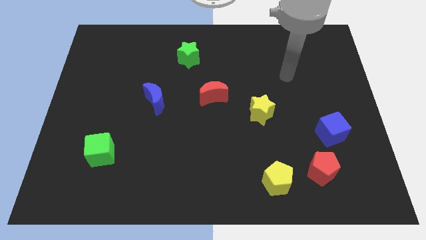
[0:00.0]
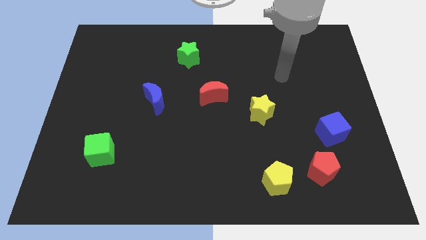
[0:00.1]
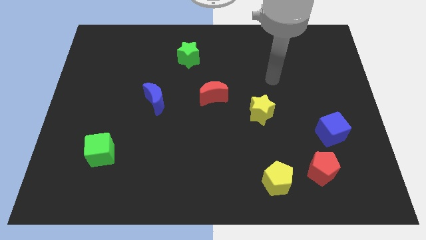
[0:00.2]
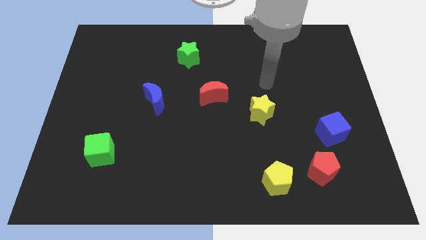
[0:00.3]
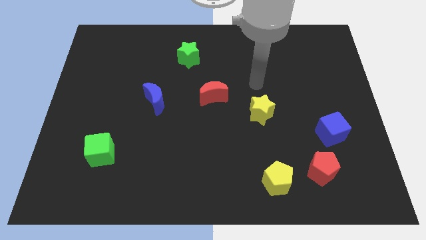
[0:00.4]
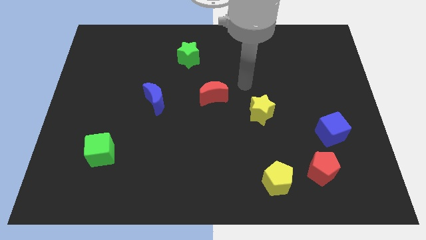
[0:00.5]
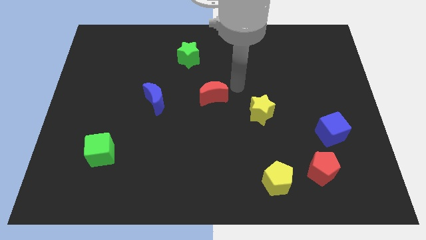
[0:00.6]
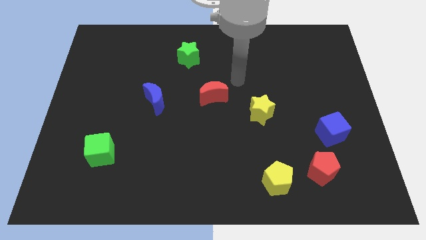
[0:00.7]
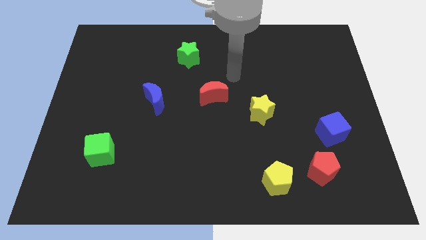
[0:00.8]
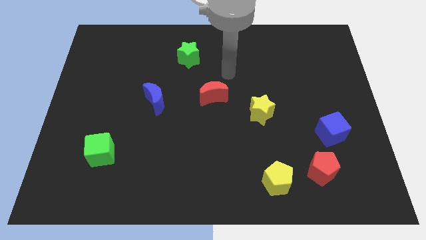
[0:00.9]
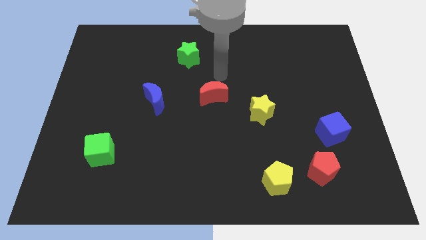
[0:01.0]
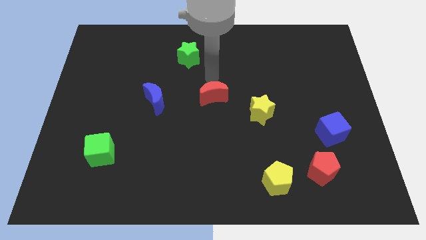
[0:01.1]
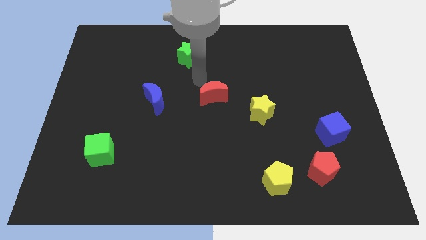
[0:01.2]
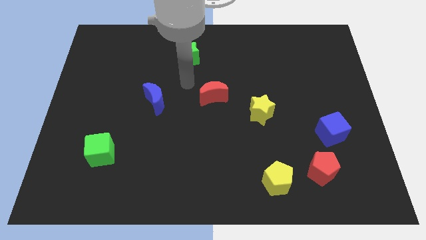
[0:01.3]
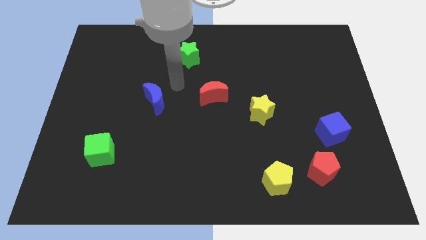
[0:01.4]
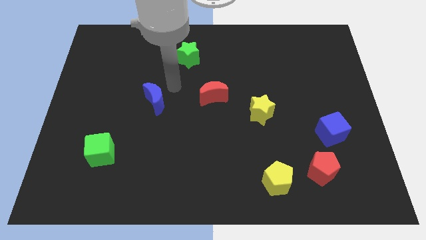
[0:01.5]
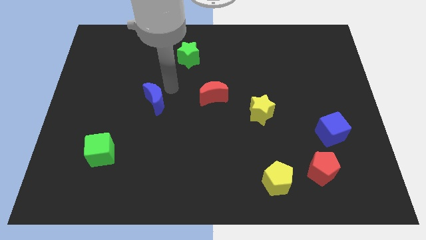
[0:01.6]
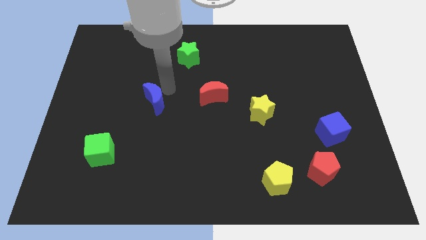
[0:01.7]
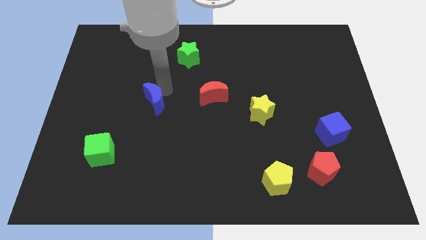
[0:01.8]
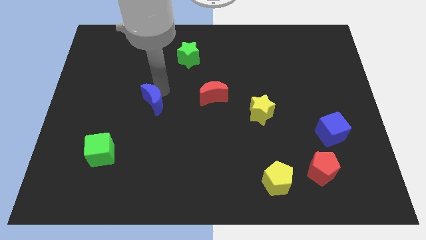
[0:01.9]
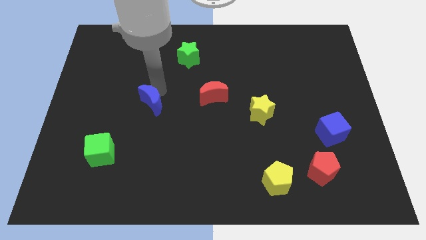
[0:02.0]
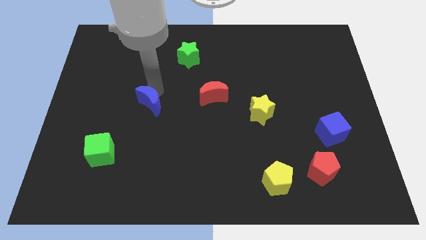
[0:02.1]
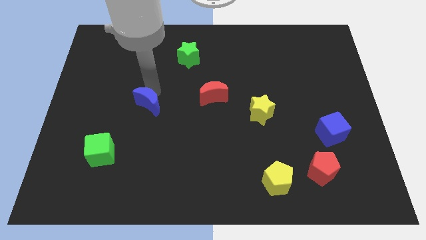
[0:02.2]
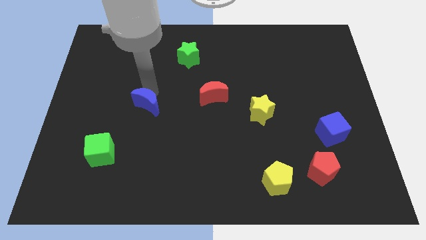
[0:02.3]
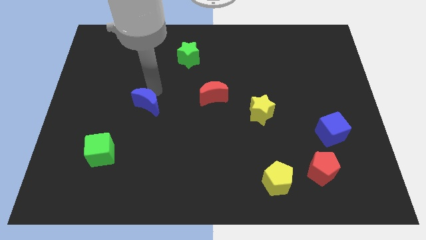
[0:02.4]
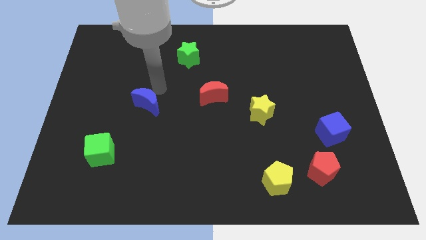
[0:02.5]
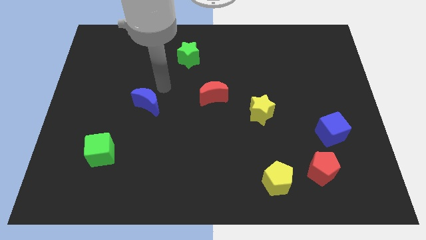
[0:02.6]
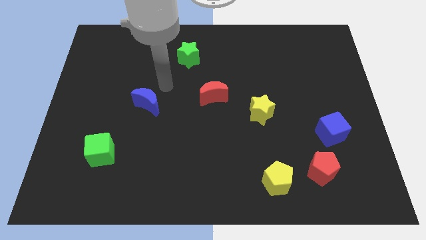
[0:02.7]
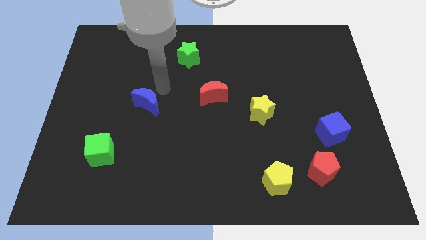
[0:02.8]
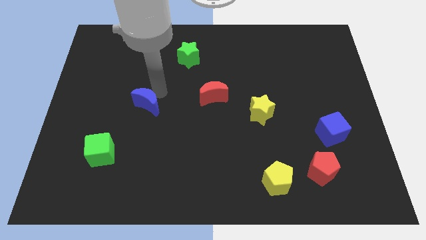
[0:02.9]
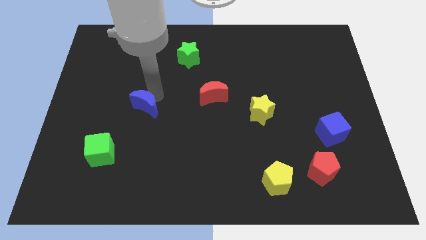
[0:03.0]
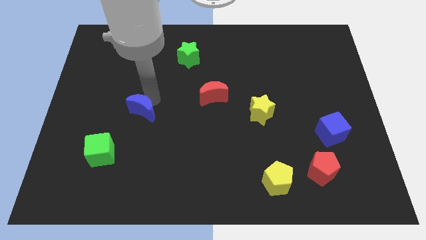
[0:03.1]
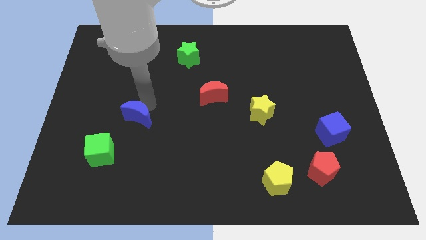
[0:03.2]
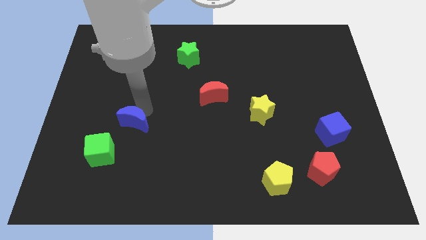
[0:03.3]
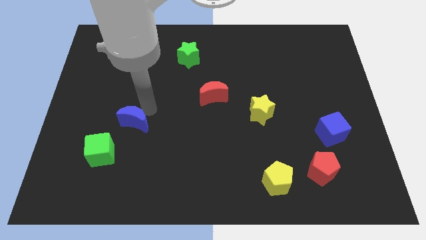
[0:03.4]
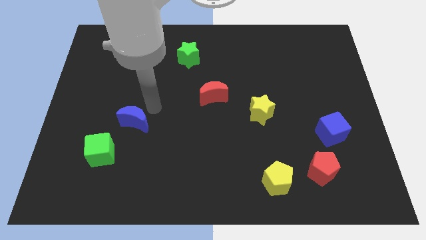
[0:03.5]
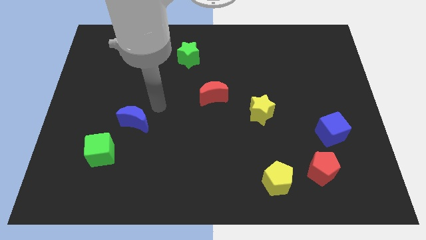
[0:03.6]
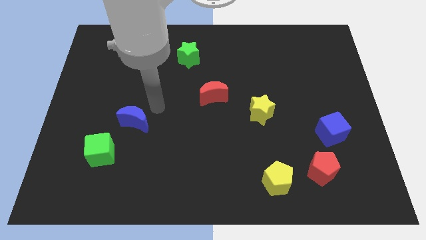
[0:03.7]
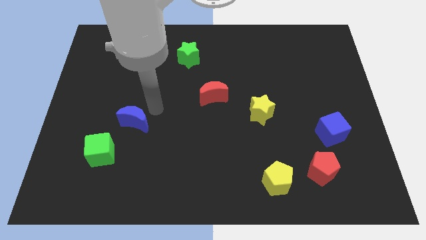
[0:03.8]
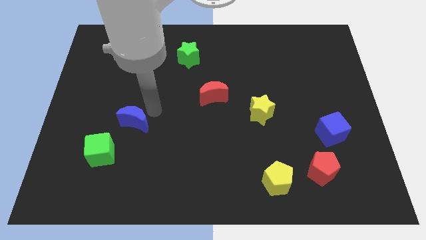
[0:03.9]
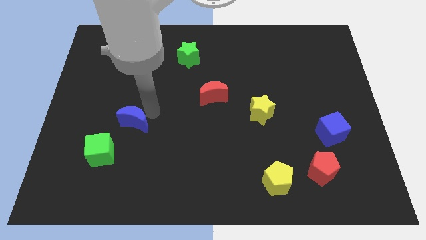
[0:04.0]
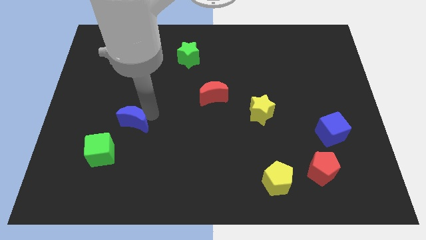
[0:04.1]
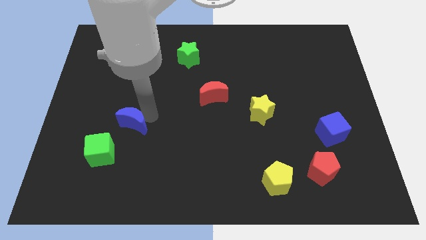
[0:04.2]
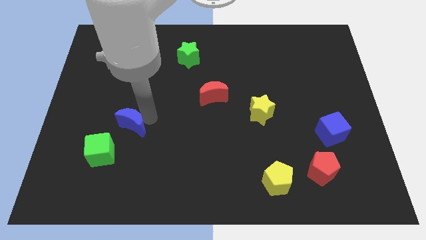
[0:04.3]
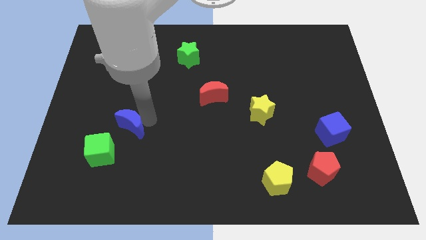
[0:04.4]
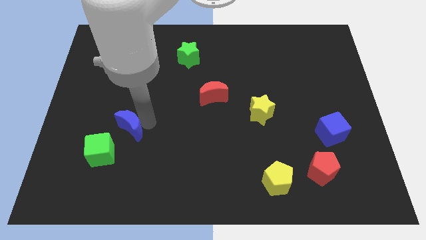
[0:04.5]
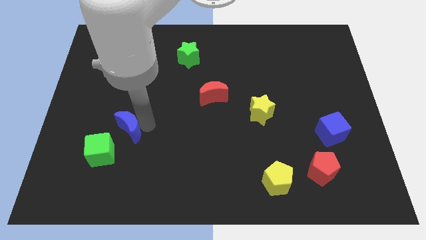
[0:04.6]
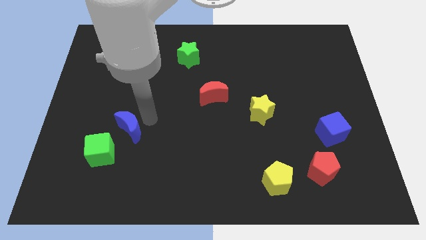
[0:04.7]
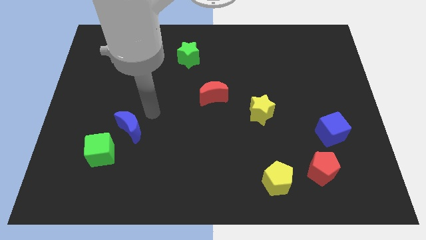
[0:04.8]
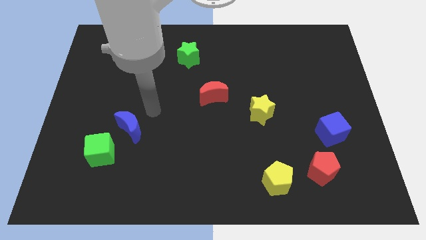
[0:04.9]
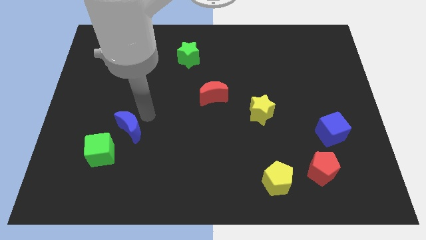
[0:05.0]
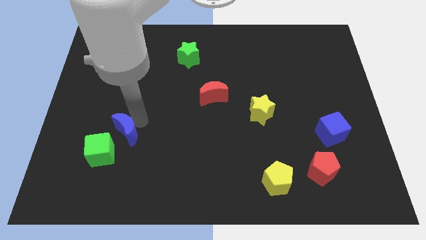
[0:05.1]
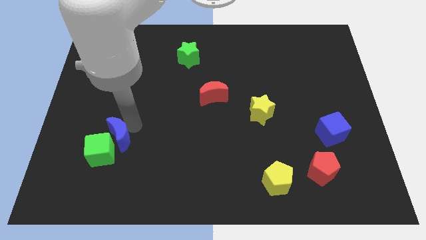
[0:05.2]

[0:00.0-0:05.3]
put the blue moon towards the green cube

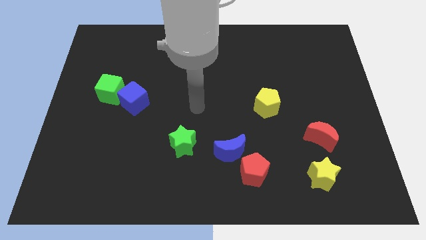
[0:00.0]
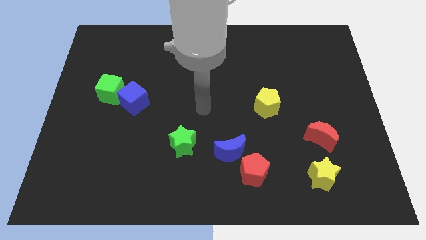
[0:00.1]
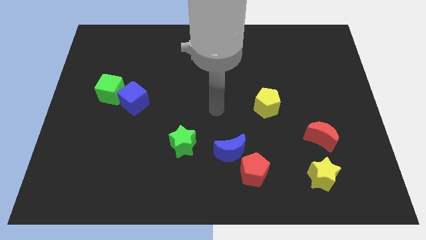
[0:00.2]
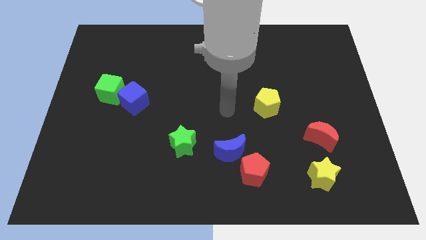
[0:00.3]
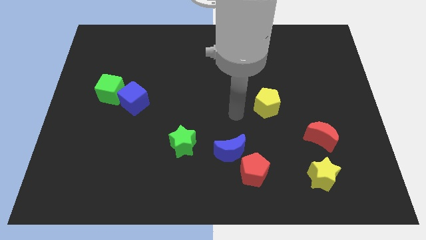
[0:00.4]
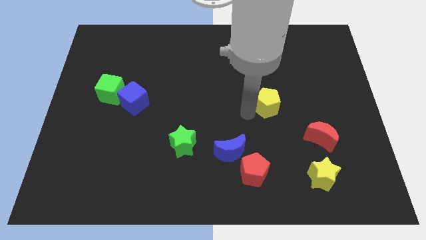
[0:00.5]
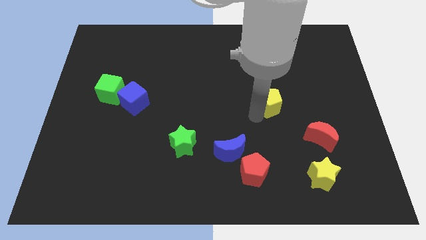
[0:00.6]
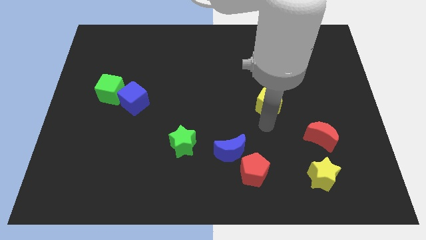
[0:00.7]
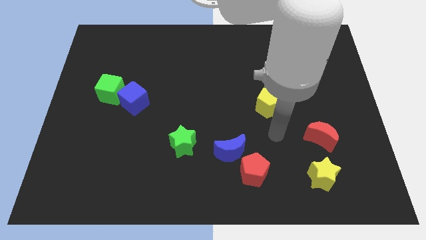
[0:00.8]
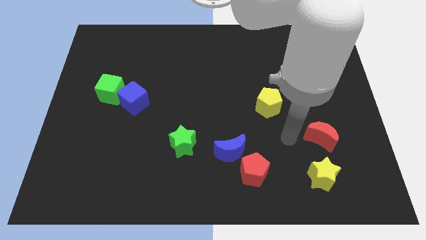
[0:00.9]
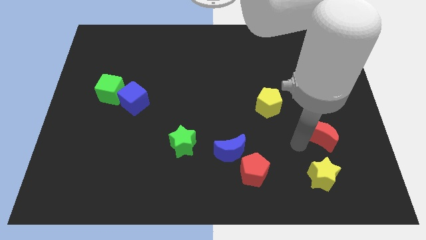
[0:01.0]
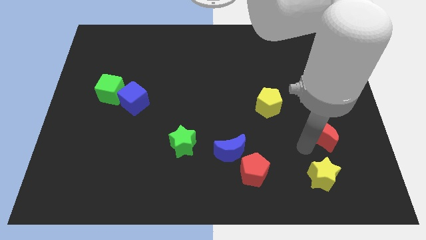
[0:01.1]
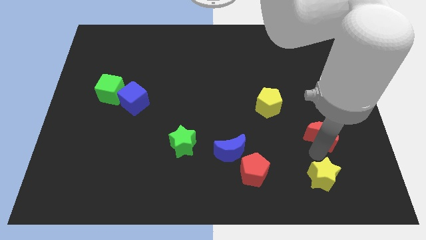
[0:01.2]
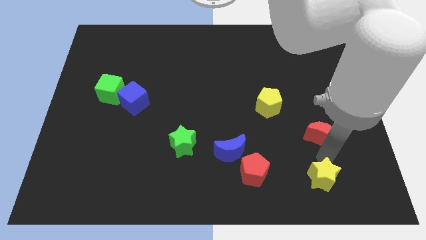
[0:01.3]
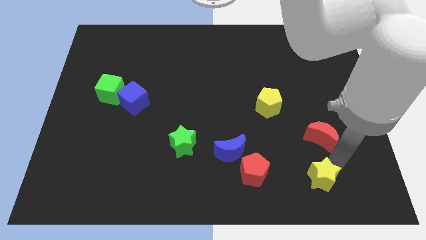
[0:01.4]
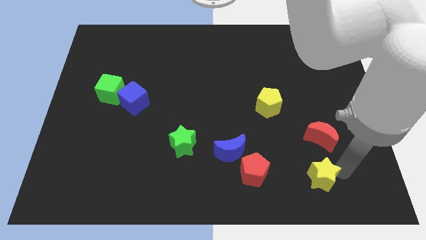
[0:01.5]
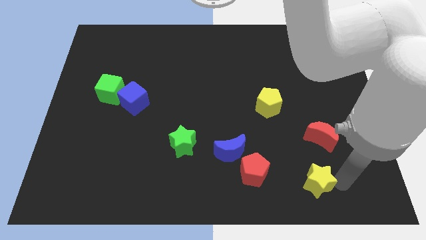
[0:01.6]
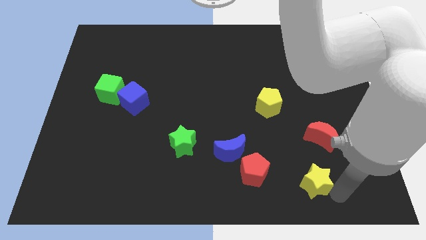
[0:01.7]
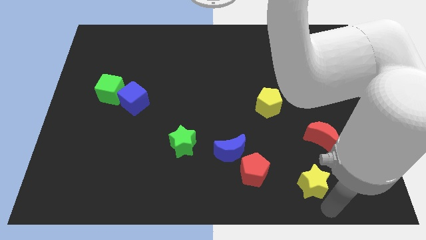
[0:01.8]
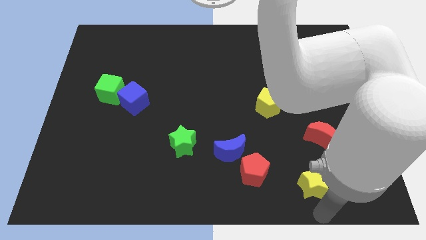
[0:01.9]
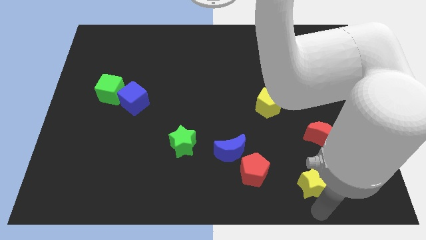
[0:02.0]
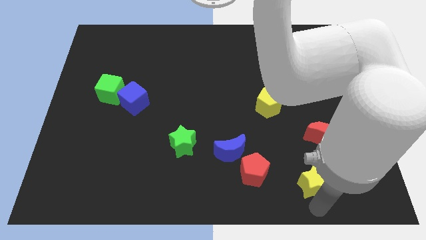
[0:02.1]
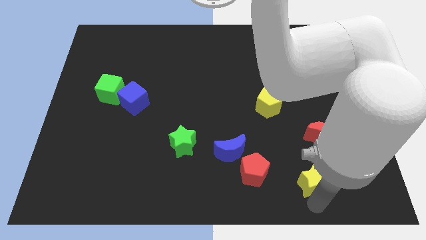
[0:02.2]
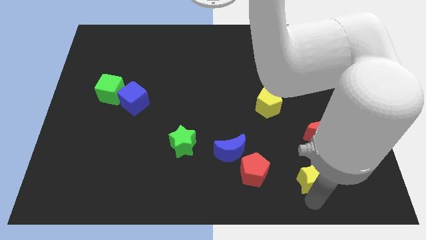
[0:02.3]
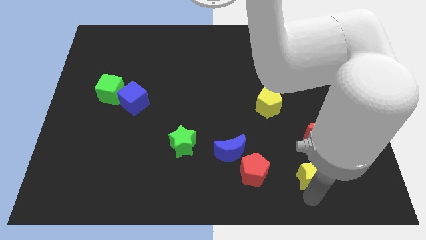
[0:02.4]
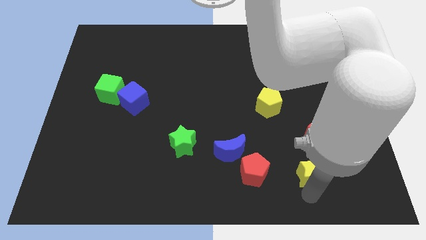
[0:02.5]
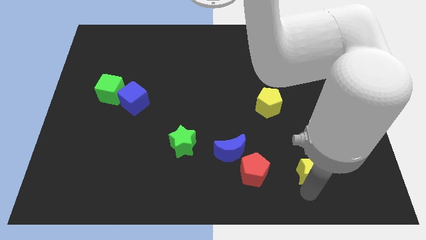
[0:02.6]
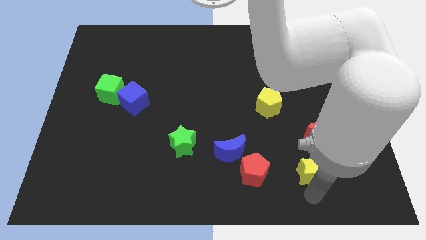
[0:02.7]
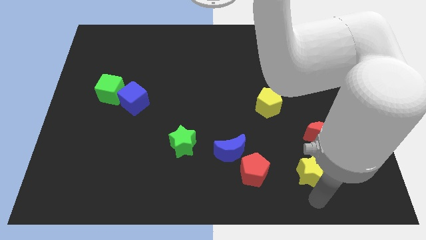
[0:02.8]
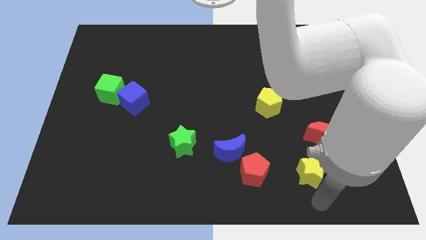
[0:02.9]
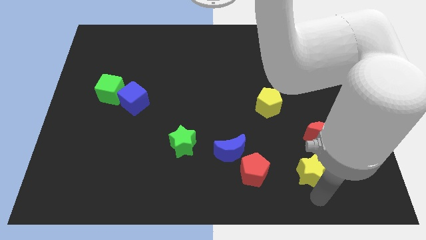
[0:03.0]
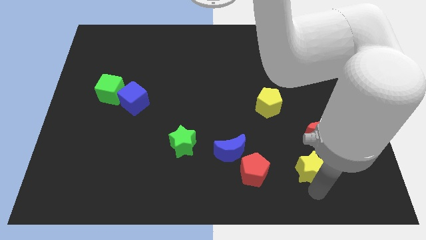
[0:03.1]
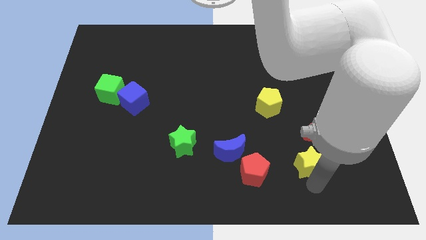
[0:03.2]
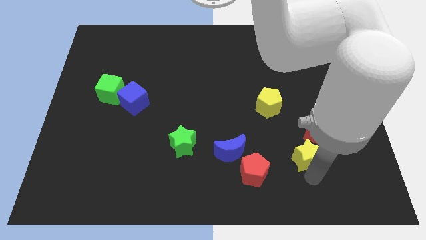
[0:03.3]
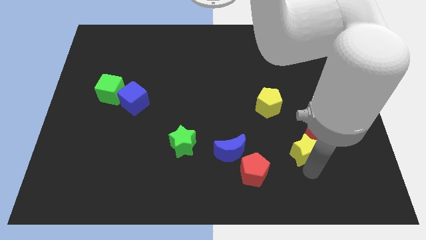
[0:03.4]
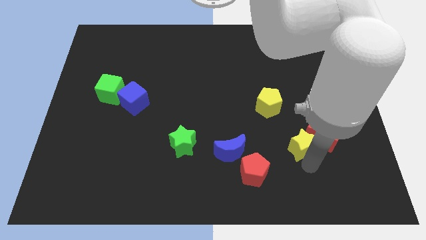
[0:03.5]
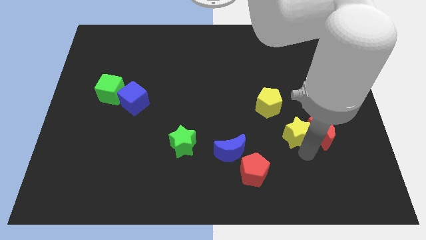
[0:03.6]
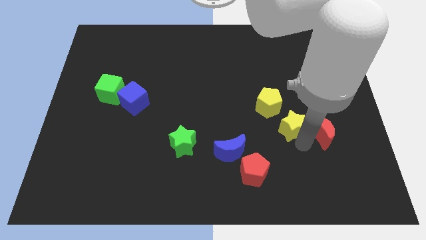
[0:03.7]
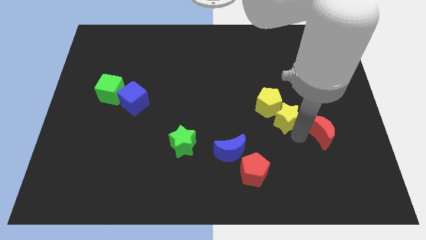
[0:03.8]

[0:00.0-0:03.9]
slide the yellow star towards the yellow pentagon
